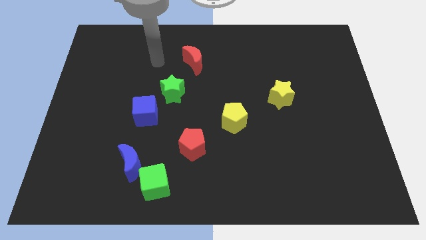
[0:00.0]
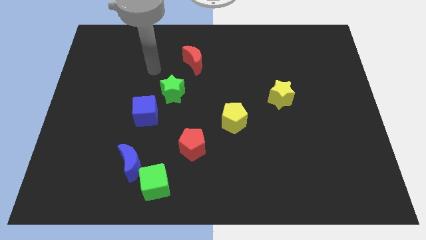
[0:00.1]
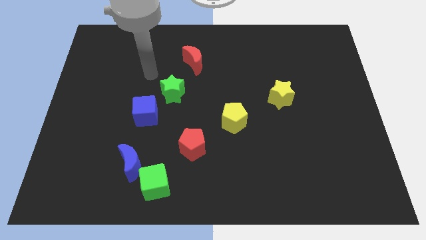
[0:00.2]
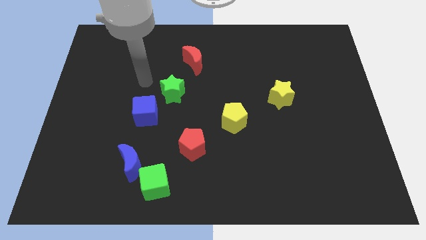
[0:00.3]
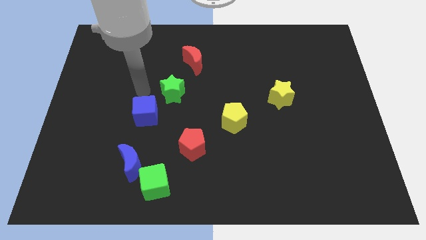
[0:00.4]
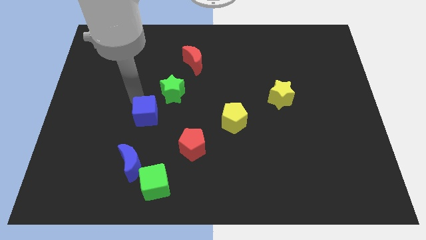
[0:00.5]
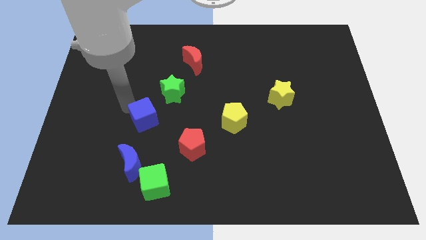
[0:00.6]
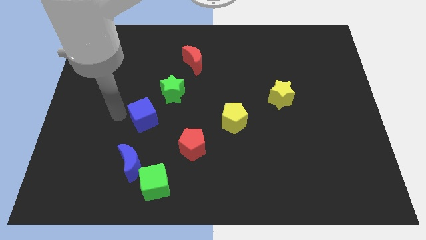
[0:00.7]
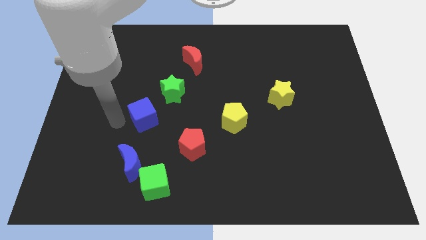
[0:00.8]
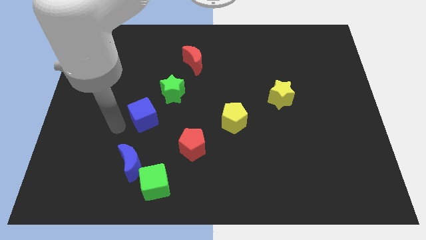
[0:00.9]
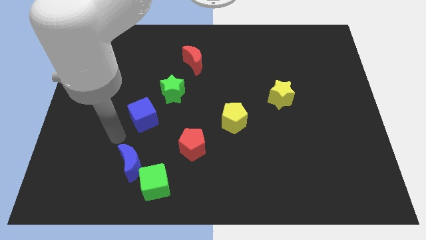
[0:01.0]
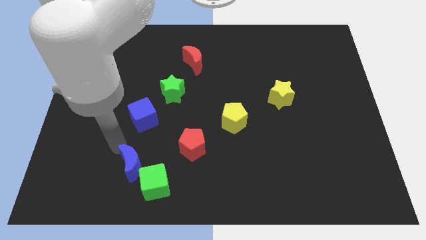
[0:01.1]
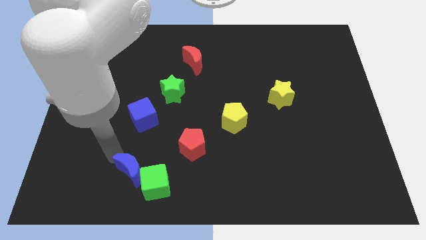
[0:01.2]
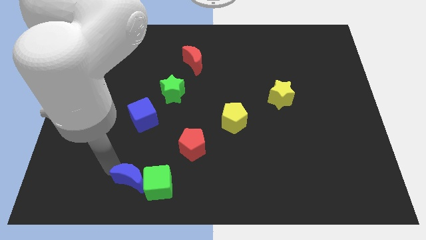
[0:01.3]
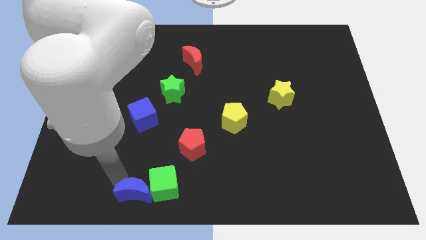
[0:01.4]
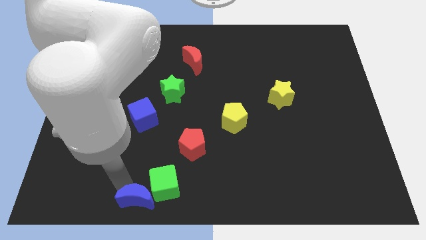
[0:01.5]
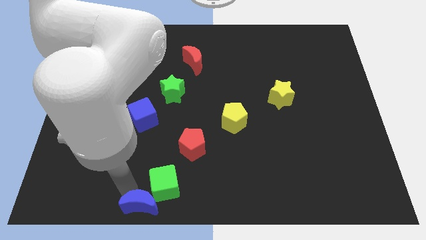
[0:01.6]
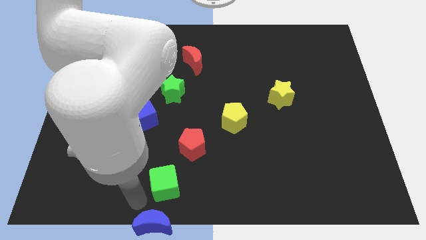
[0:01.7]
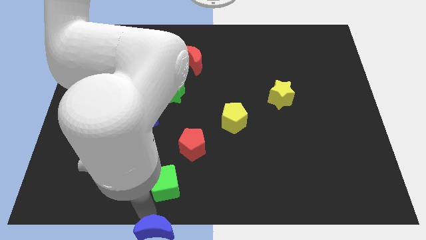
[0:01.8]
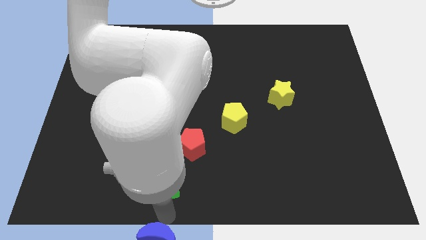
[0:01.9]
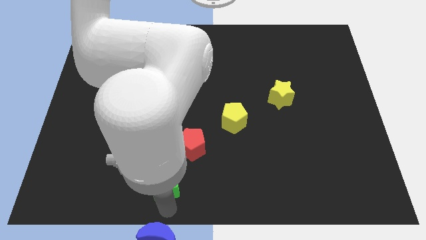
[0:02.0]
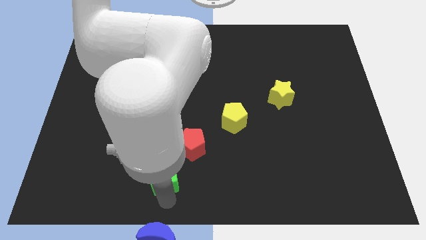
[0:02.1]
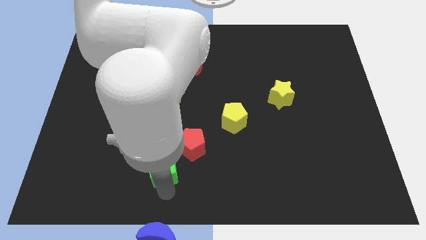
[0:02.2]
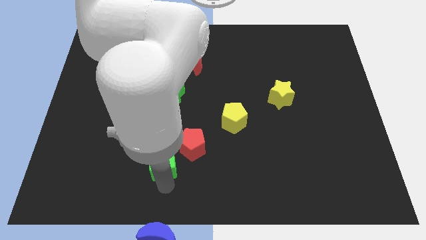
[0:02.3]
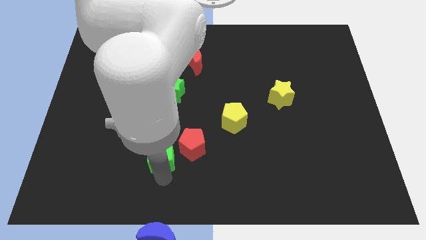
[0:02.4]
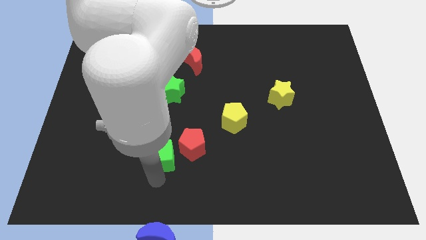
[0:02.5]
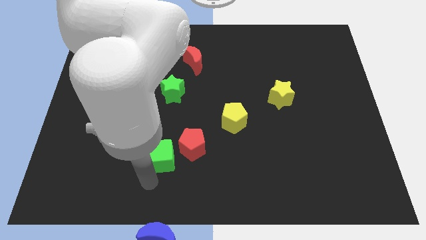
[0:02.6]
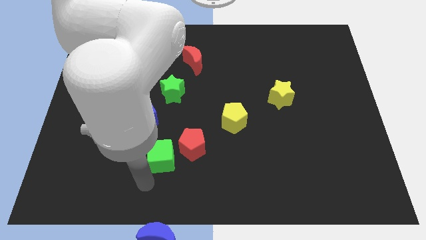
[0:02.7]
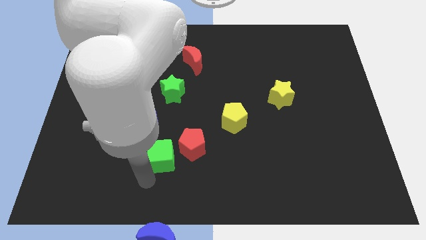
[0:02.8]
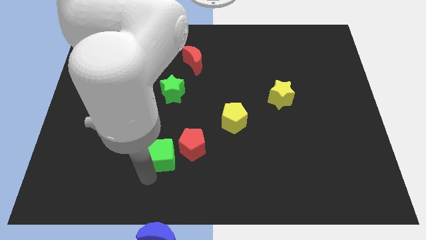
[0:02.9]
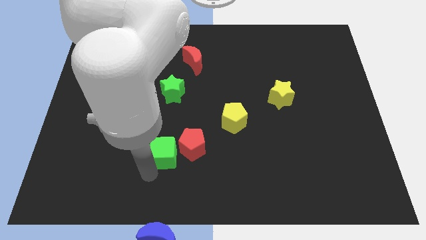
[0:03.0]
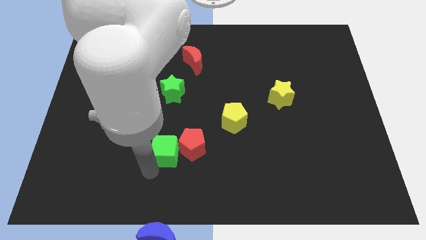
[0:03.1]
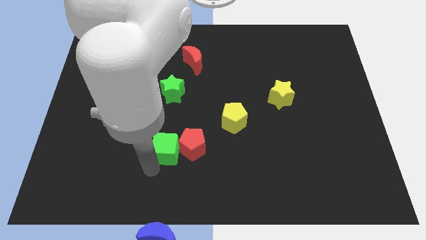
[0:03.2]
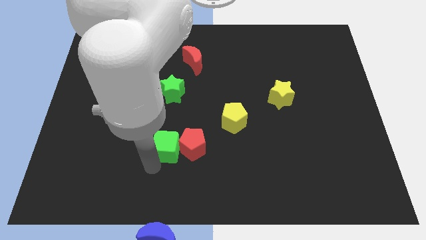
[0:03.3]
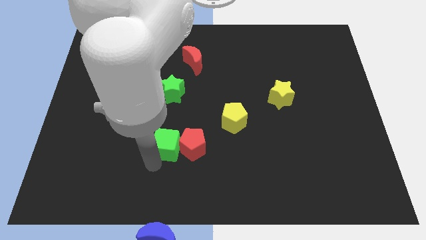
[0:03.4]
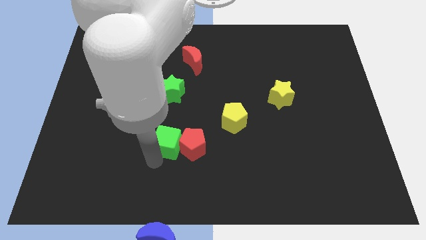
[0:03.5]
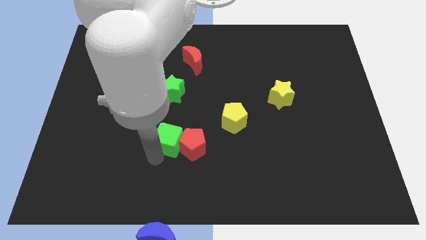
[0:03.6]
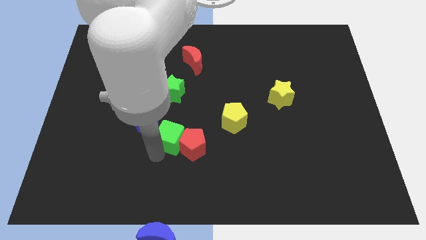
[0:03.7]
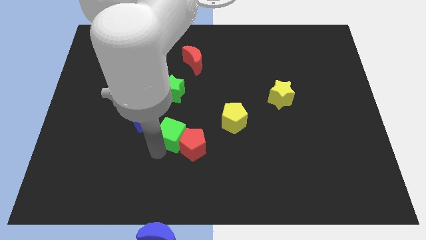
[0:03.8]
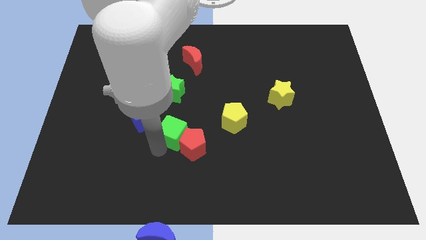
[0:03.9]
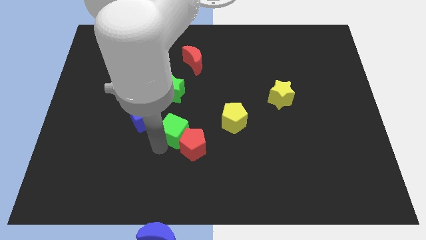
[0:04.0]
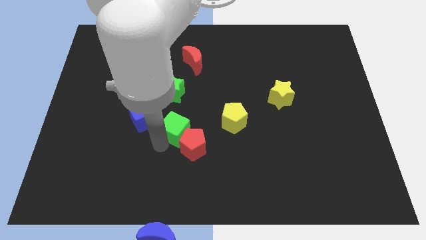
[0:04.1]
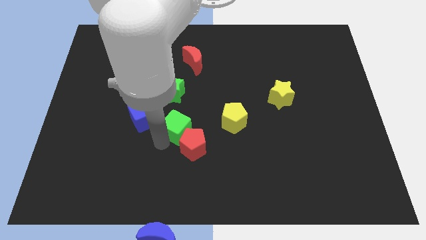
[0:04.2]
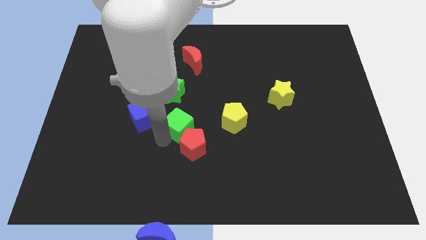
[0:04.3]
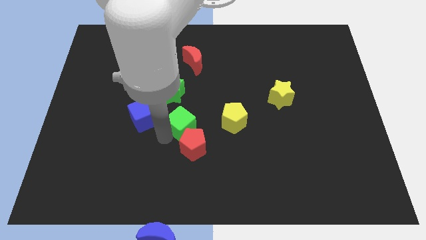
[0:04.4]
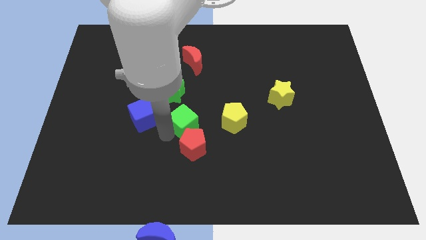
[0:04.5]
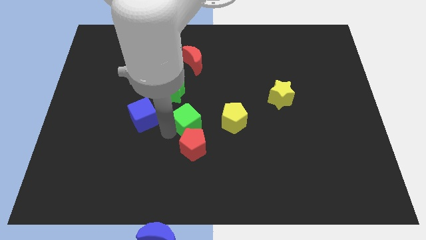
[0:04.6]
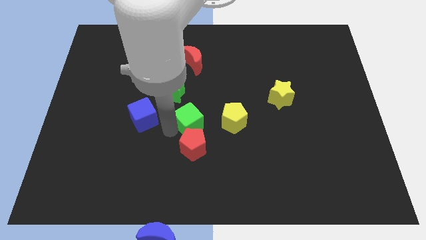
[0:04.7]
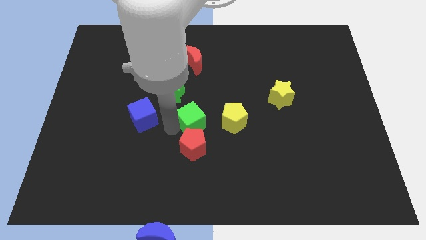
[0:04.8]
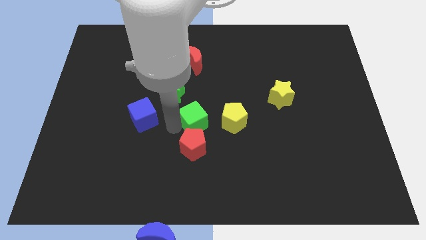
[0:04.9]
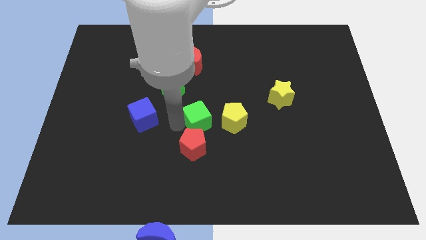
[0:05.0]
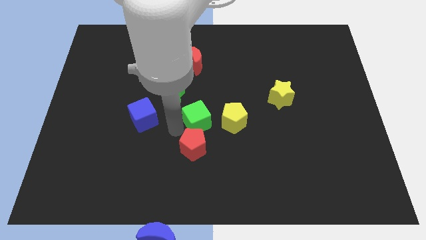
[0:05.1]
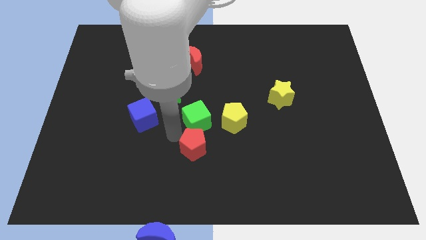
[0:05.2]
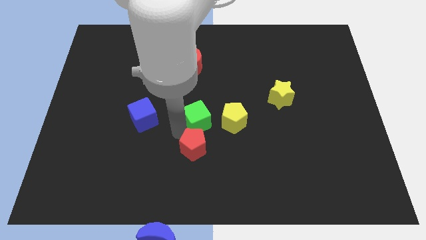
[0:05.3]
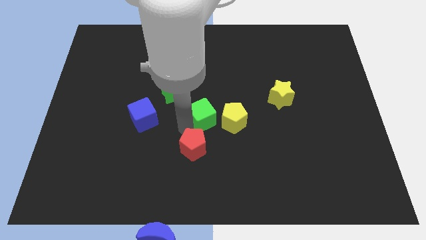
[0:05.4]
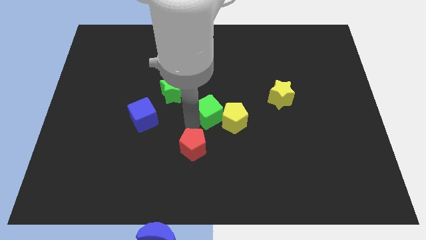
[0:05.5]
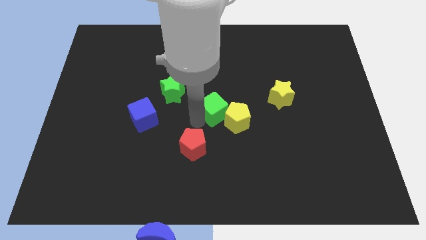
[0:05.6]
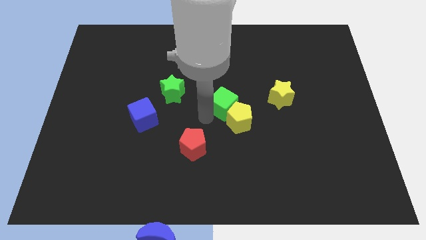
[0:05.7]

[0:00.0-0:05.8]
put the green cube to the top of the yellow pentagon

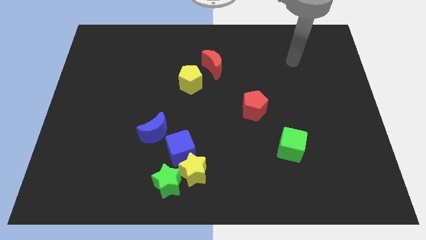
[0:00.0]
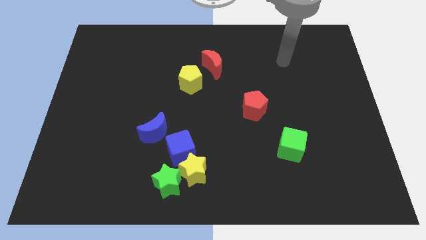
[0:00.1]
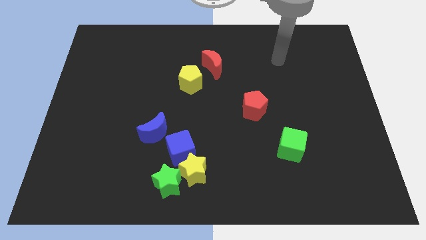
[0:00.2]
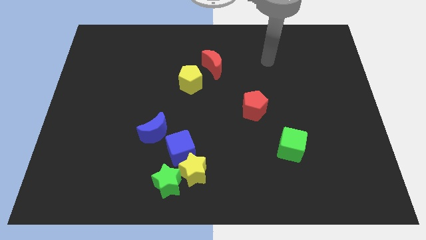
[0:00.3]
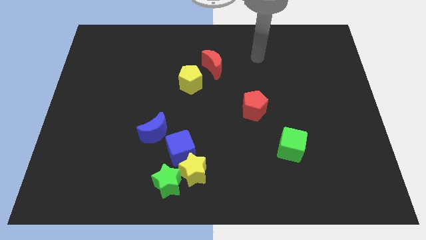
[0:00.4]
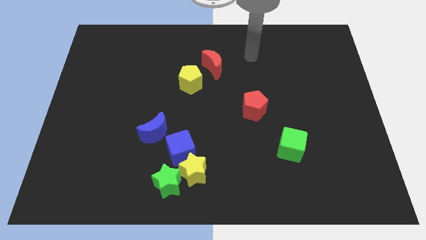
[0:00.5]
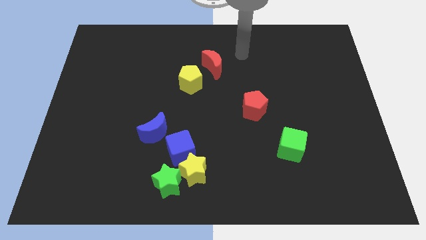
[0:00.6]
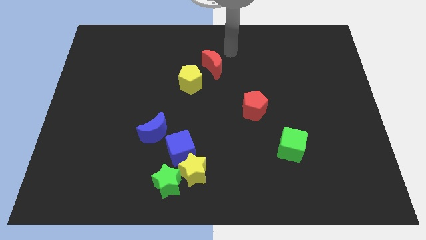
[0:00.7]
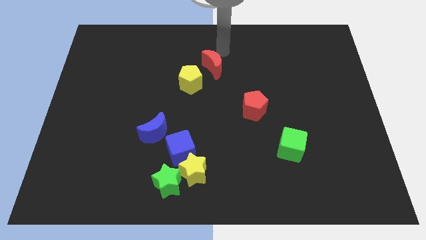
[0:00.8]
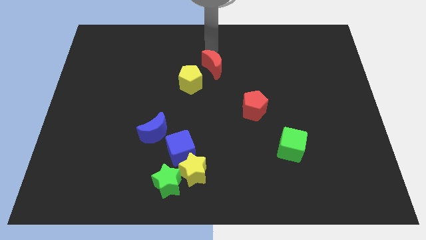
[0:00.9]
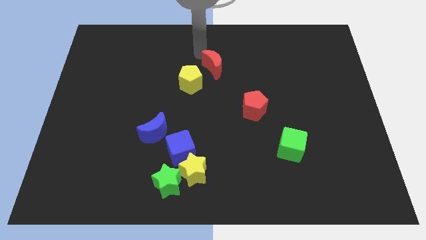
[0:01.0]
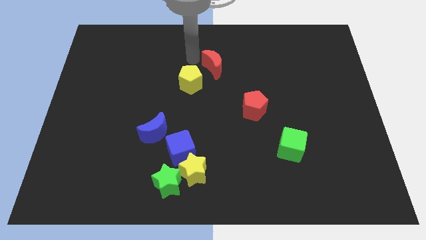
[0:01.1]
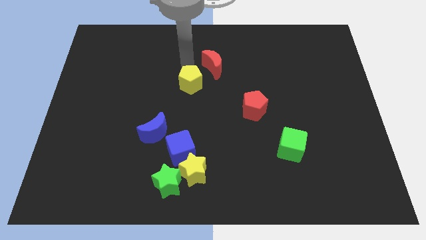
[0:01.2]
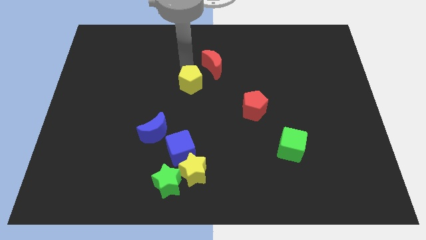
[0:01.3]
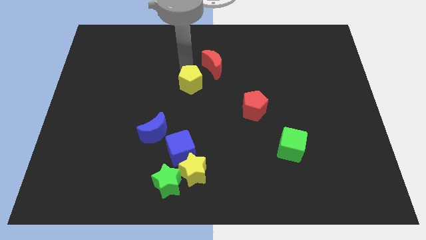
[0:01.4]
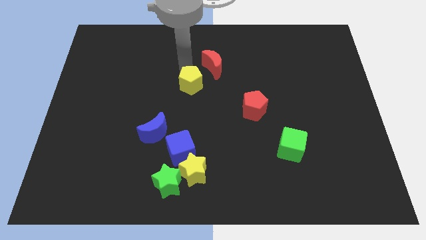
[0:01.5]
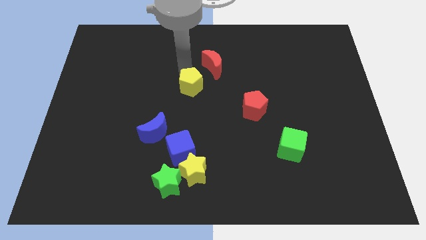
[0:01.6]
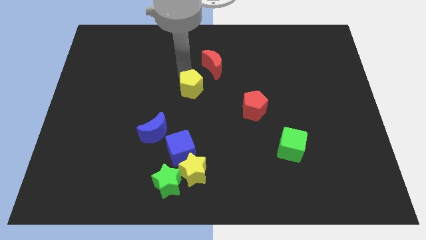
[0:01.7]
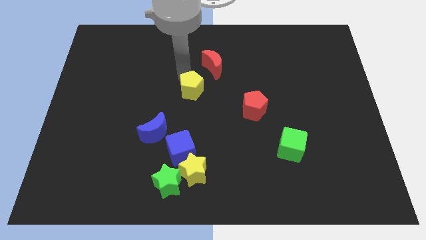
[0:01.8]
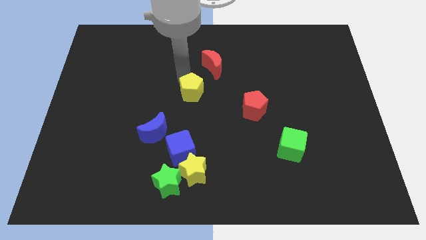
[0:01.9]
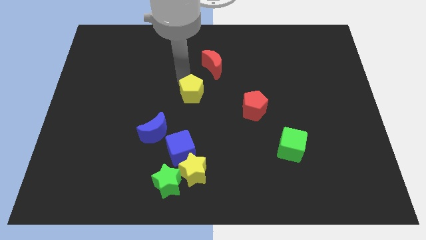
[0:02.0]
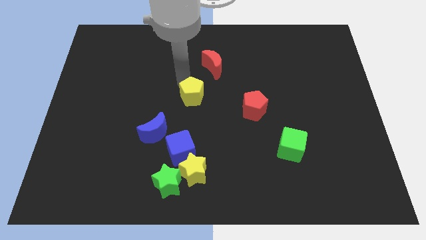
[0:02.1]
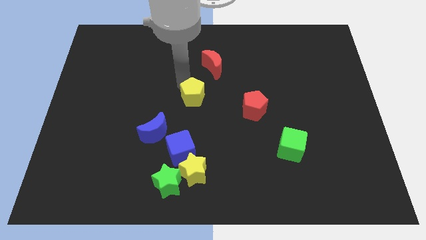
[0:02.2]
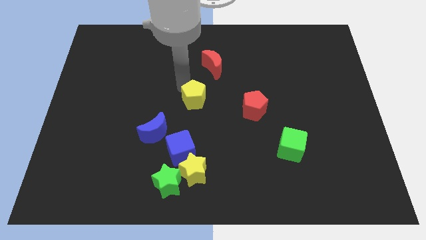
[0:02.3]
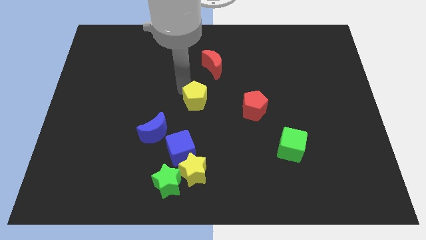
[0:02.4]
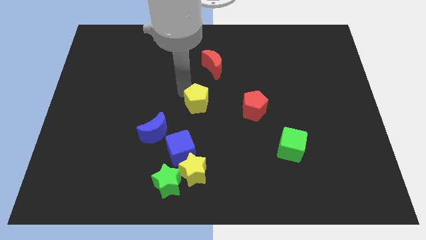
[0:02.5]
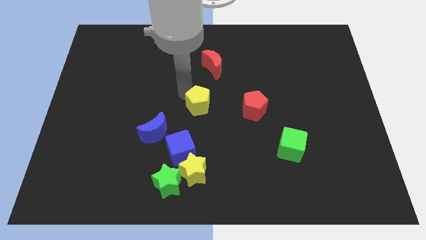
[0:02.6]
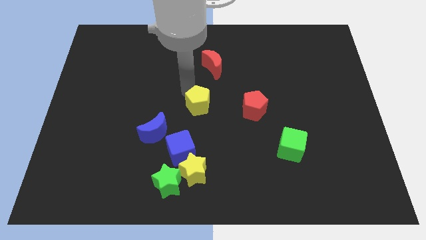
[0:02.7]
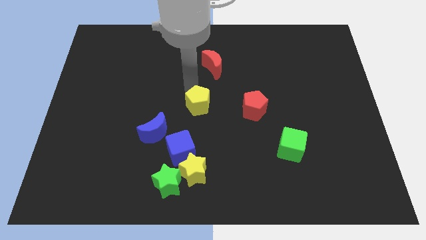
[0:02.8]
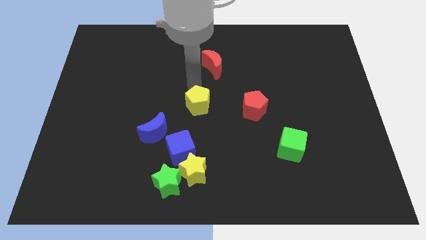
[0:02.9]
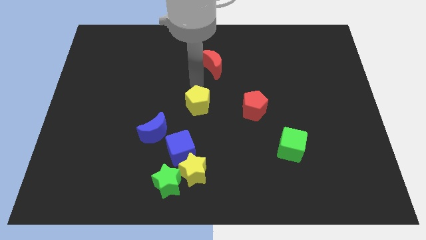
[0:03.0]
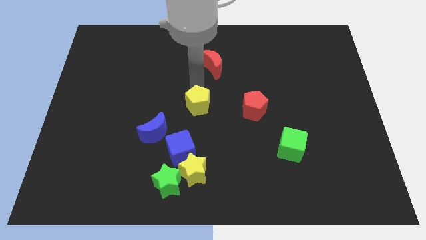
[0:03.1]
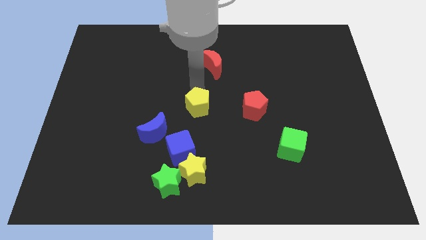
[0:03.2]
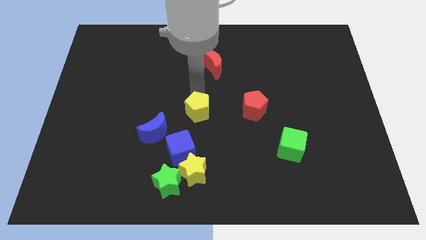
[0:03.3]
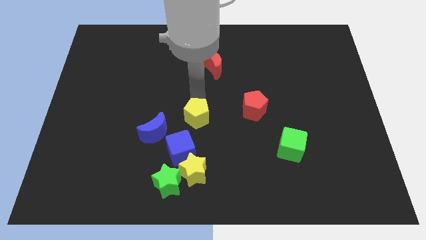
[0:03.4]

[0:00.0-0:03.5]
push the yellow pentagon to the right side of the blue moon
